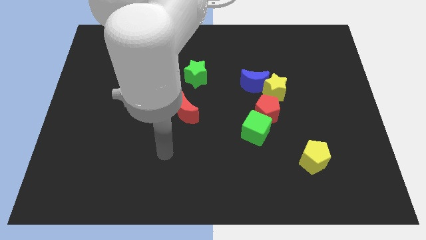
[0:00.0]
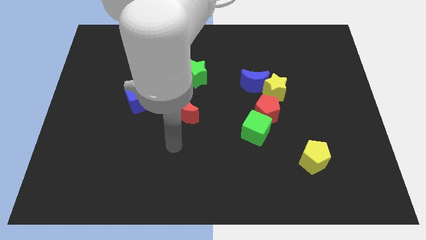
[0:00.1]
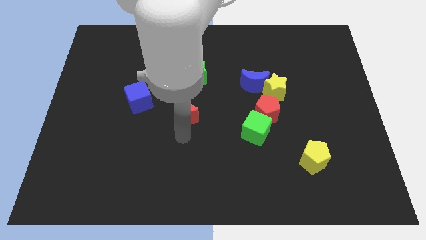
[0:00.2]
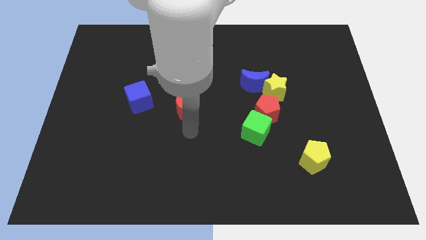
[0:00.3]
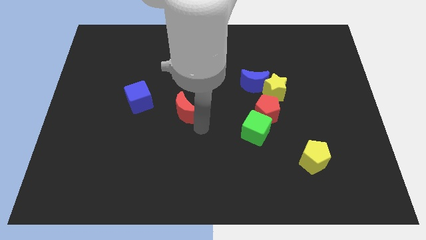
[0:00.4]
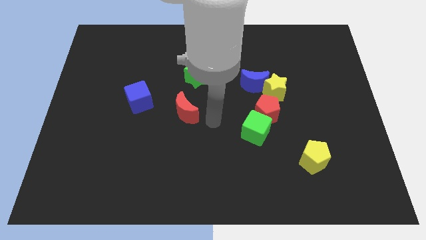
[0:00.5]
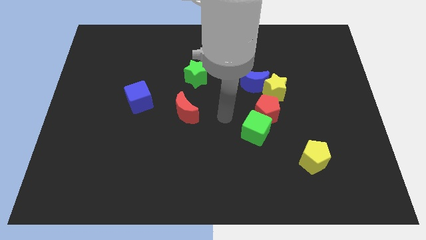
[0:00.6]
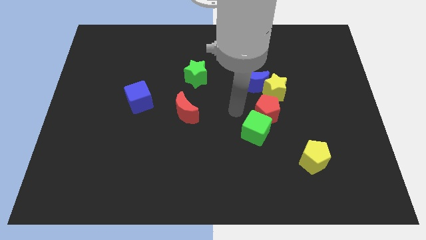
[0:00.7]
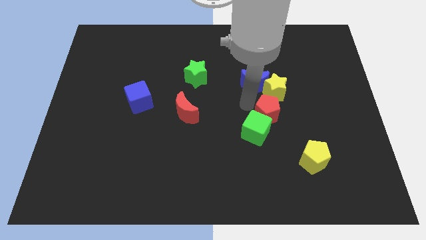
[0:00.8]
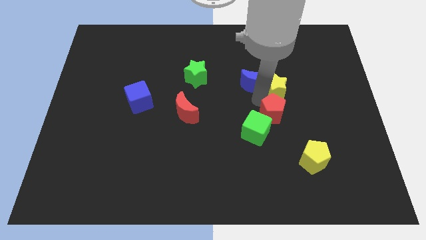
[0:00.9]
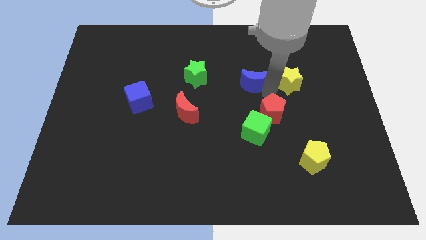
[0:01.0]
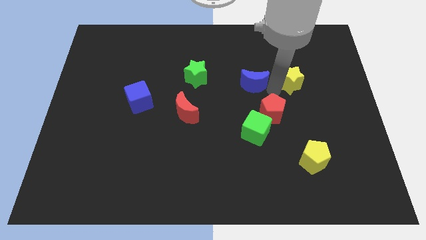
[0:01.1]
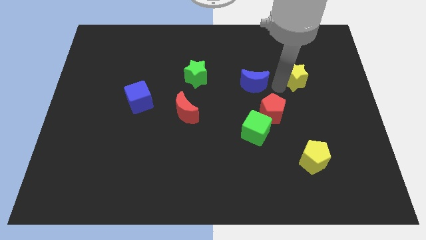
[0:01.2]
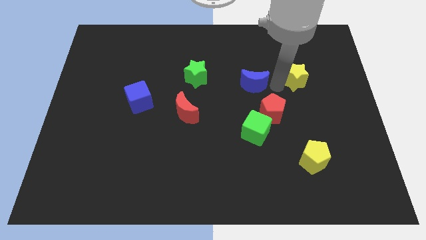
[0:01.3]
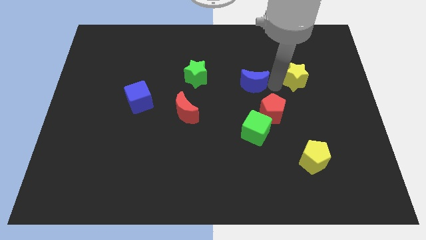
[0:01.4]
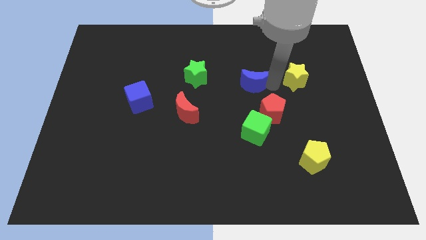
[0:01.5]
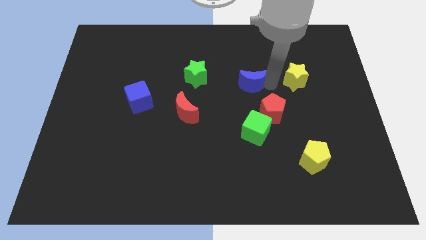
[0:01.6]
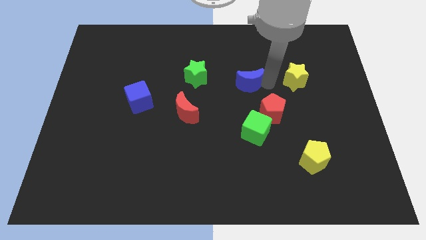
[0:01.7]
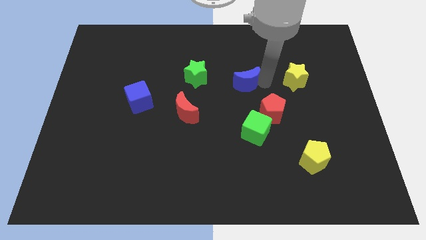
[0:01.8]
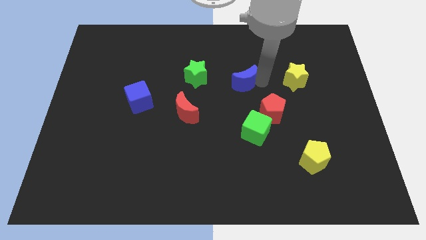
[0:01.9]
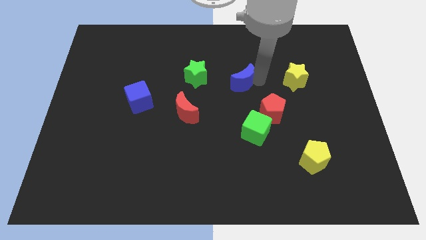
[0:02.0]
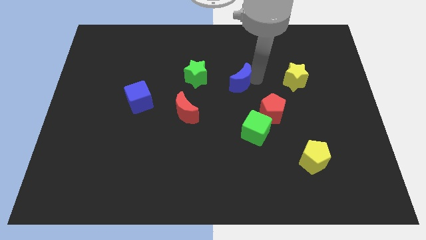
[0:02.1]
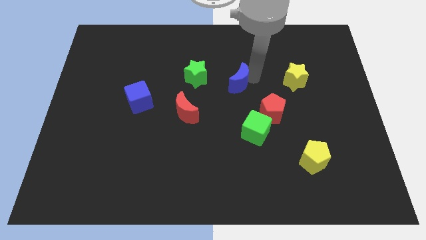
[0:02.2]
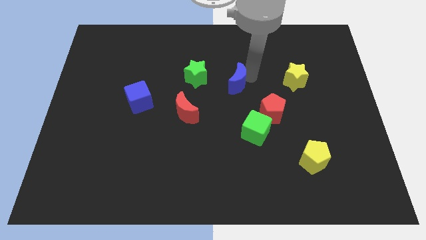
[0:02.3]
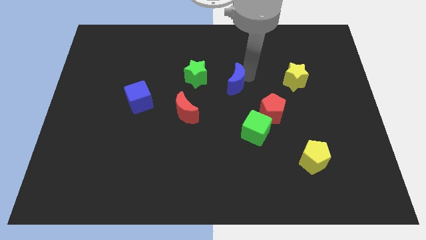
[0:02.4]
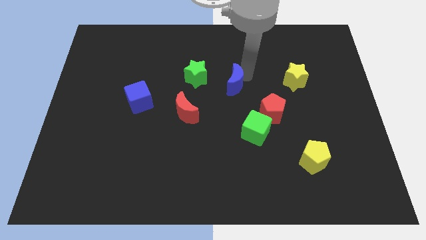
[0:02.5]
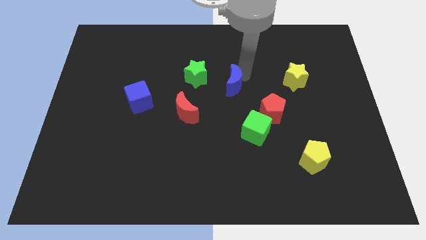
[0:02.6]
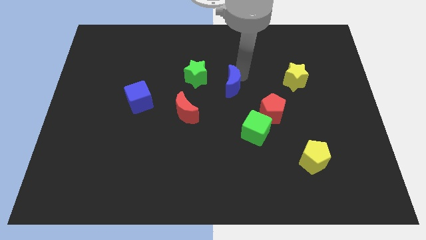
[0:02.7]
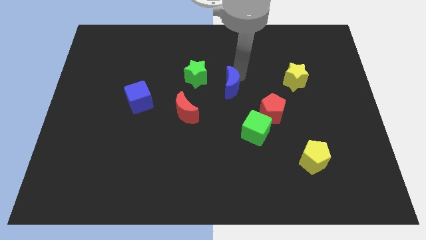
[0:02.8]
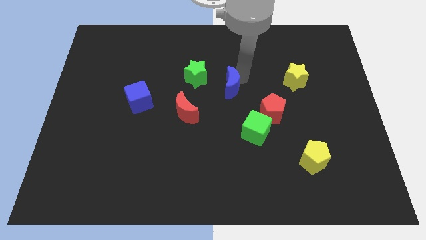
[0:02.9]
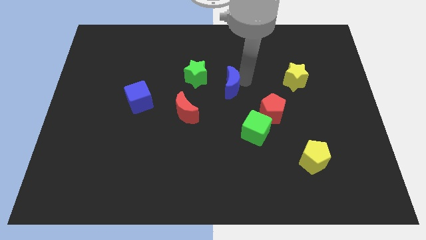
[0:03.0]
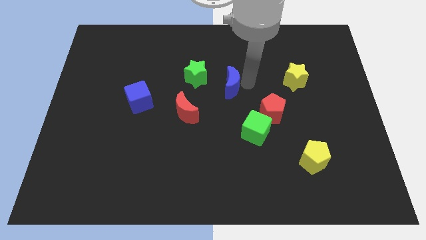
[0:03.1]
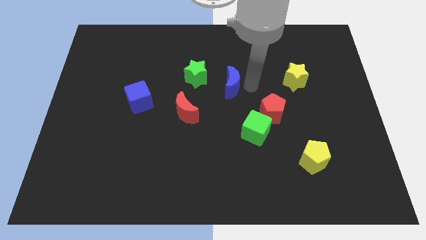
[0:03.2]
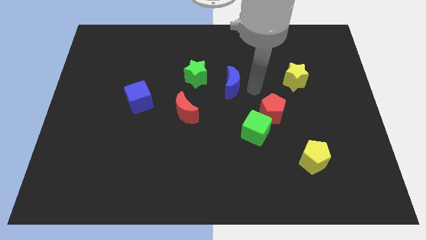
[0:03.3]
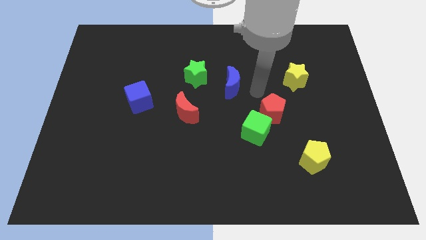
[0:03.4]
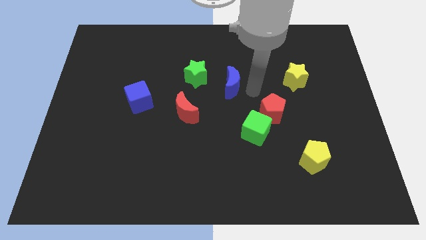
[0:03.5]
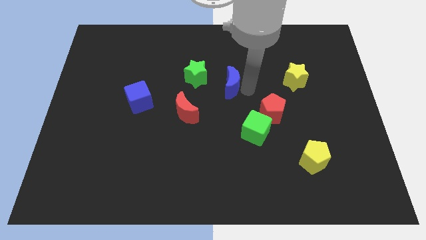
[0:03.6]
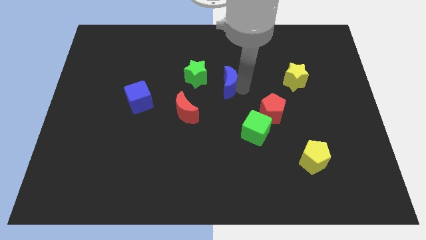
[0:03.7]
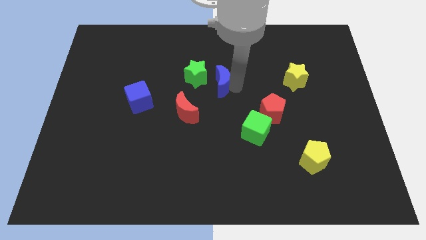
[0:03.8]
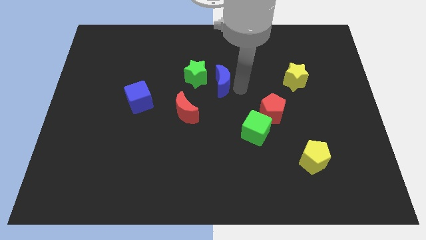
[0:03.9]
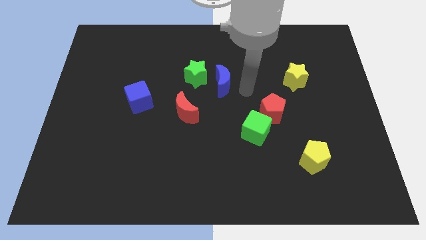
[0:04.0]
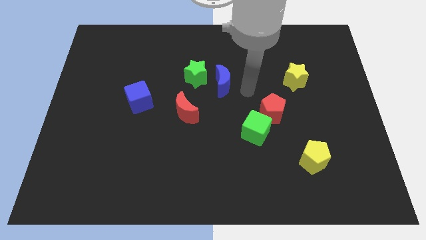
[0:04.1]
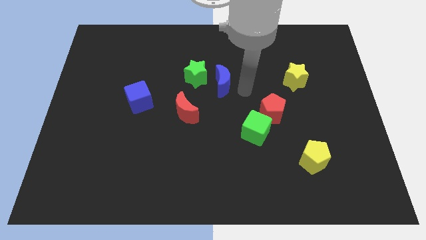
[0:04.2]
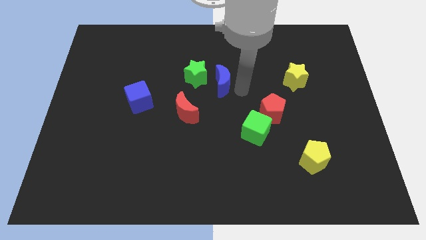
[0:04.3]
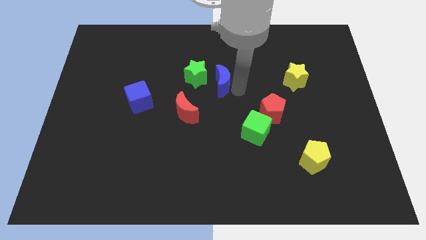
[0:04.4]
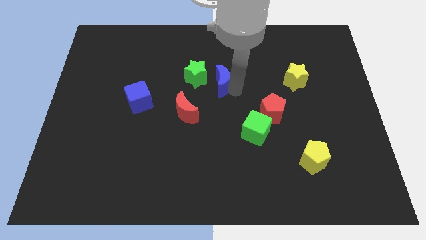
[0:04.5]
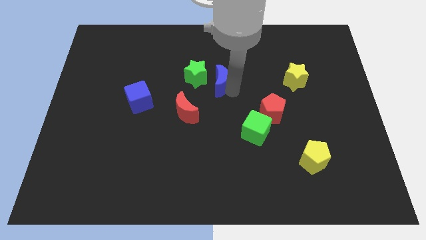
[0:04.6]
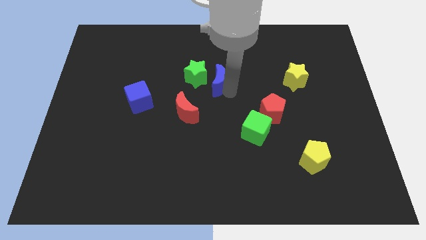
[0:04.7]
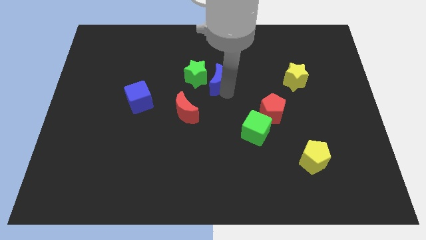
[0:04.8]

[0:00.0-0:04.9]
put the blue moon close to the green star

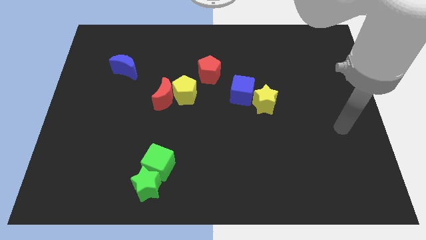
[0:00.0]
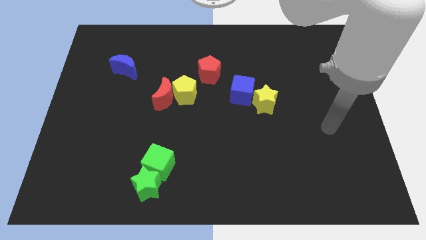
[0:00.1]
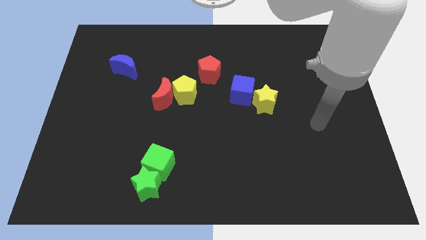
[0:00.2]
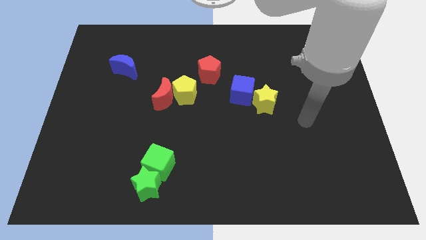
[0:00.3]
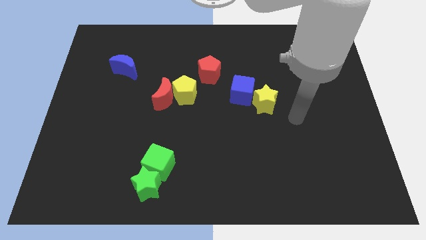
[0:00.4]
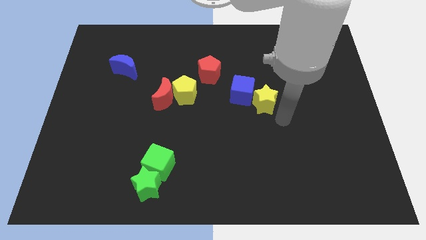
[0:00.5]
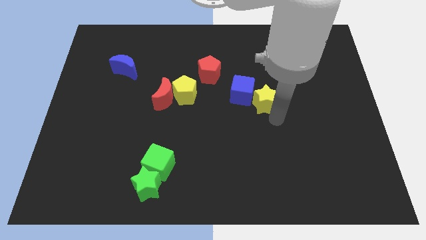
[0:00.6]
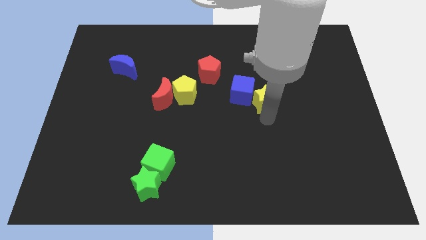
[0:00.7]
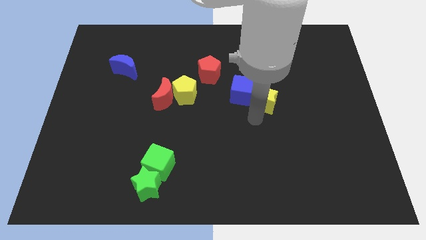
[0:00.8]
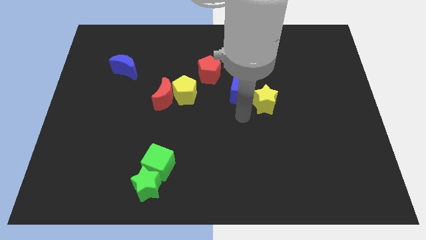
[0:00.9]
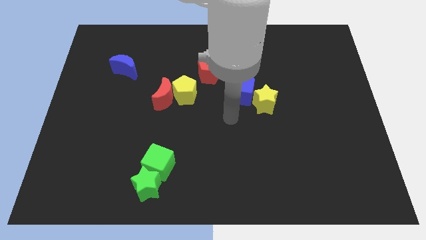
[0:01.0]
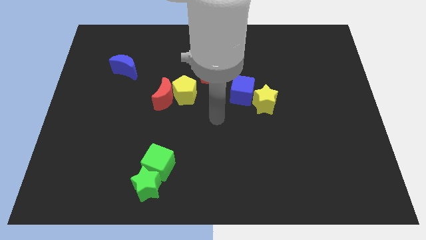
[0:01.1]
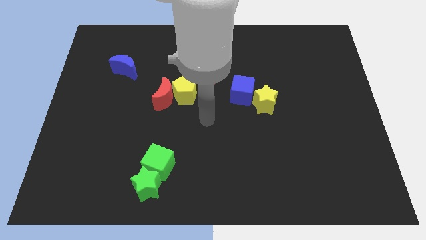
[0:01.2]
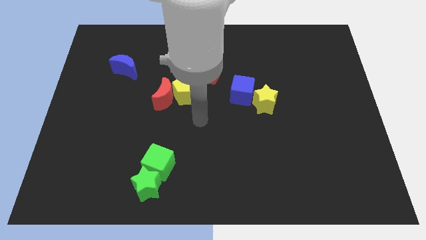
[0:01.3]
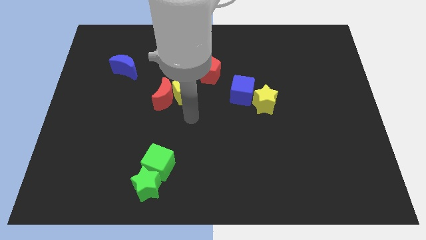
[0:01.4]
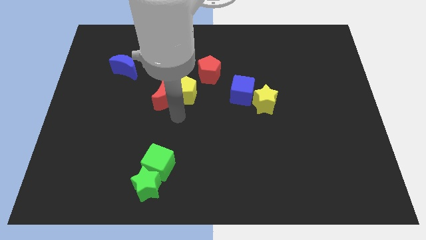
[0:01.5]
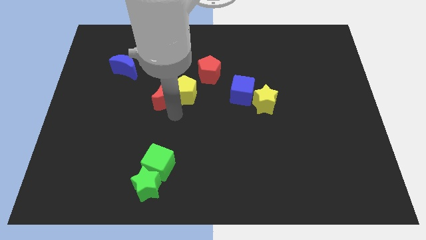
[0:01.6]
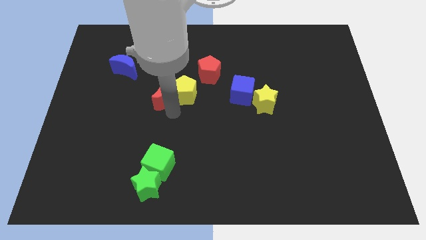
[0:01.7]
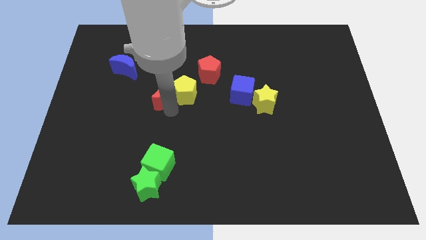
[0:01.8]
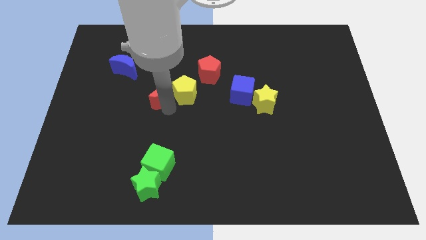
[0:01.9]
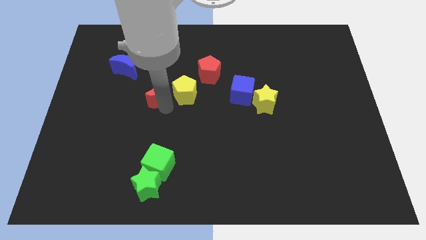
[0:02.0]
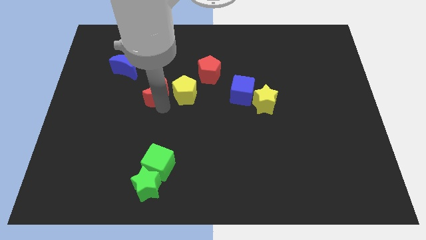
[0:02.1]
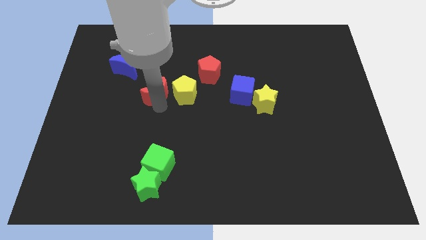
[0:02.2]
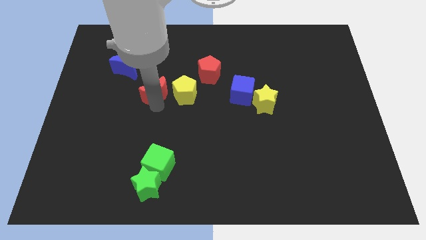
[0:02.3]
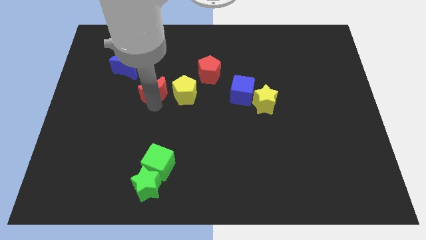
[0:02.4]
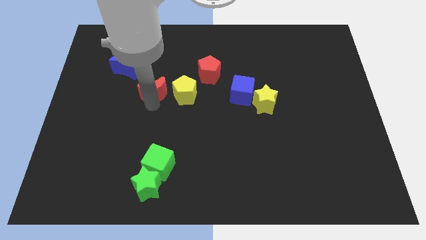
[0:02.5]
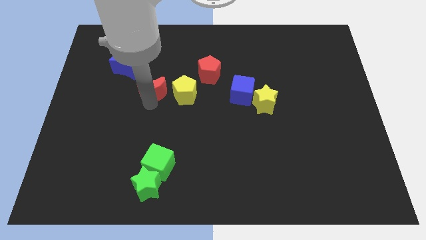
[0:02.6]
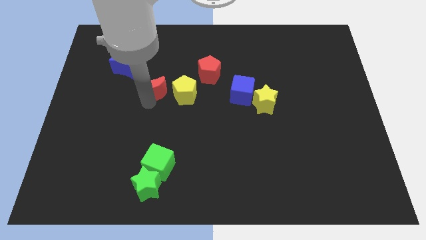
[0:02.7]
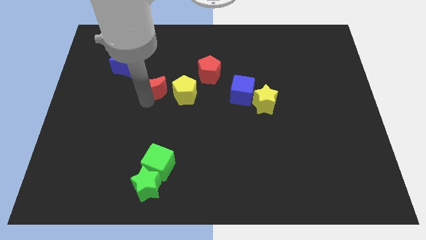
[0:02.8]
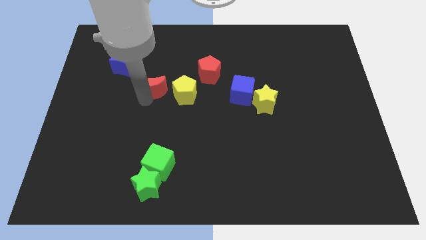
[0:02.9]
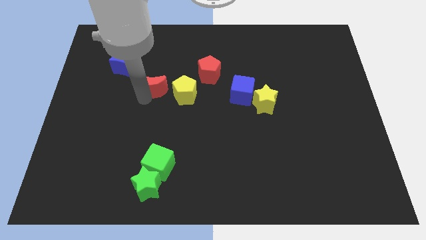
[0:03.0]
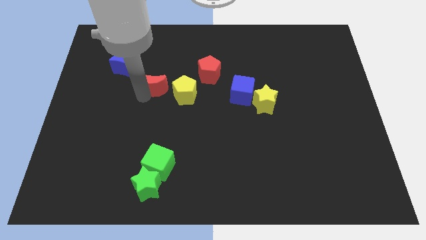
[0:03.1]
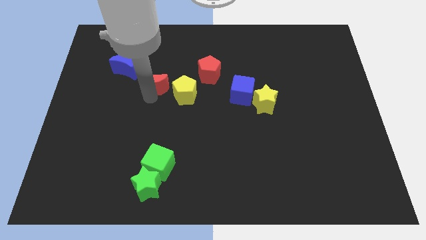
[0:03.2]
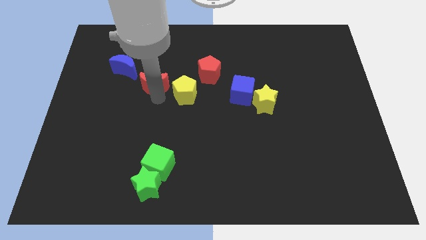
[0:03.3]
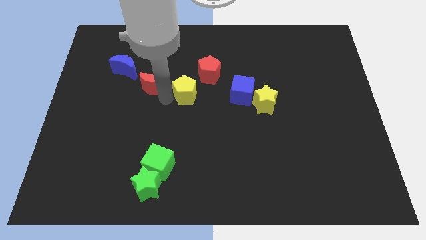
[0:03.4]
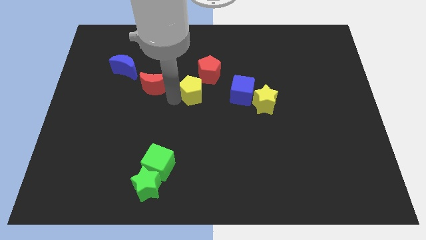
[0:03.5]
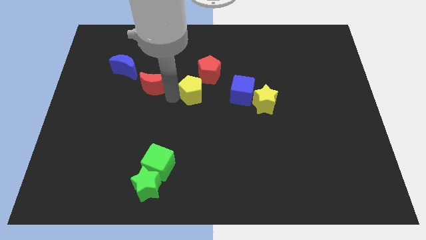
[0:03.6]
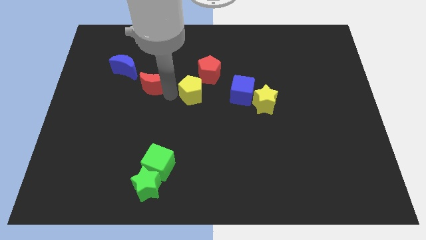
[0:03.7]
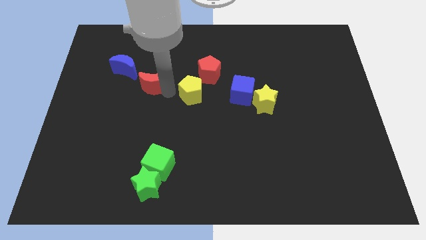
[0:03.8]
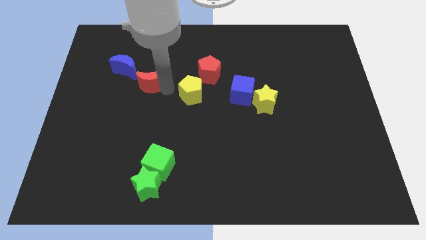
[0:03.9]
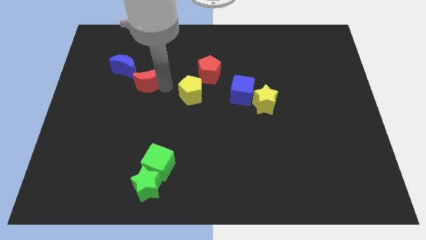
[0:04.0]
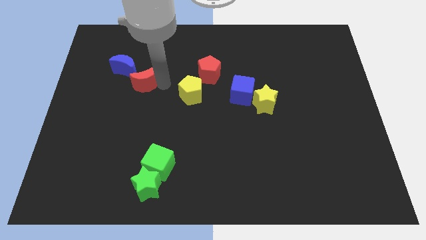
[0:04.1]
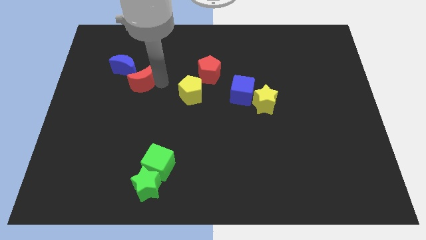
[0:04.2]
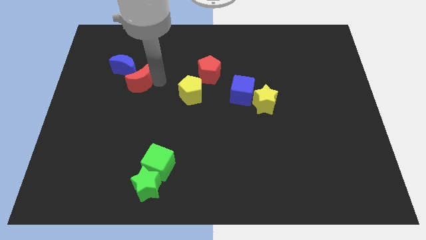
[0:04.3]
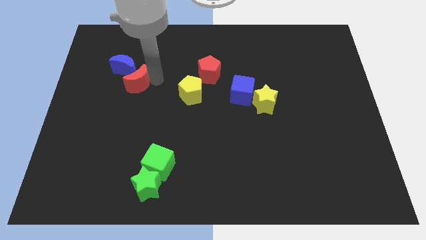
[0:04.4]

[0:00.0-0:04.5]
put the red moon towards the blue moon
